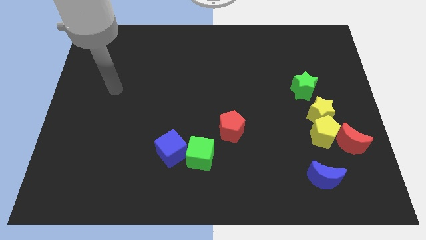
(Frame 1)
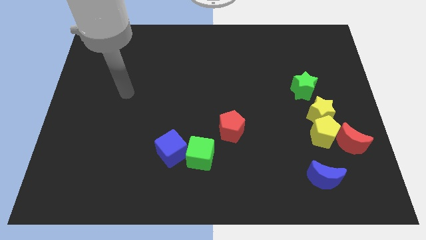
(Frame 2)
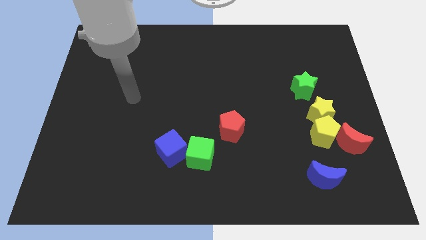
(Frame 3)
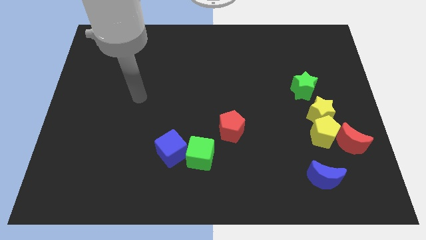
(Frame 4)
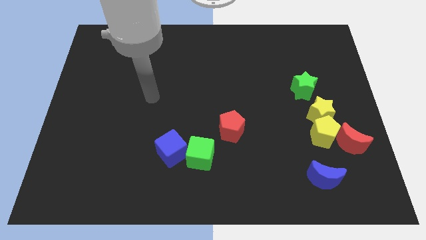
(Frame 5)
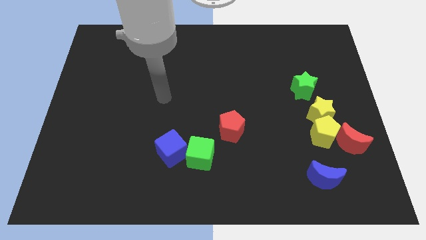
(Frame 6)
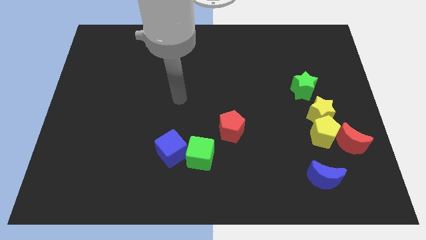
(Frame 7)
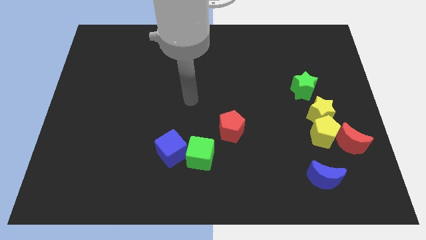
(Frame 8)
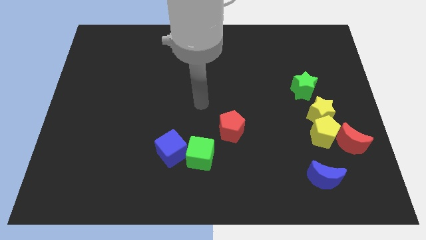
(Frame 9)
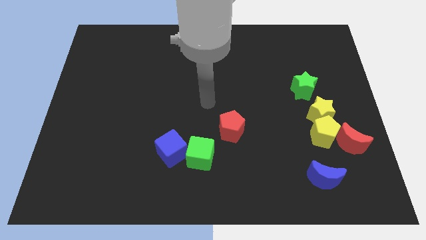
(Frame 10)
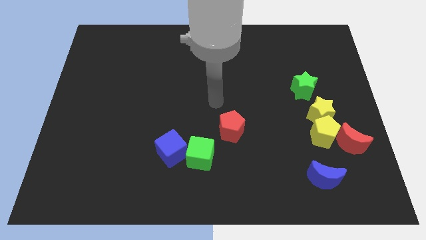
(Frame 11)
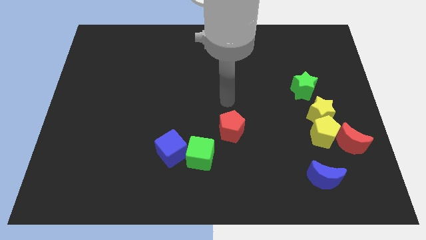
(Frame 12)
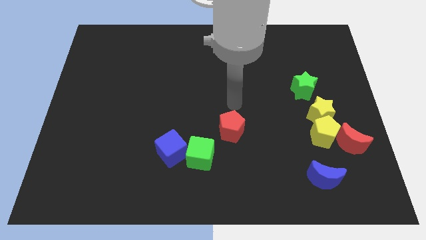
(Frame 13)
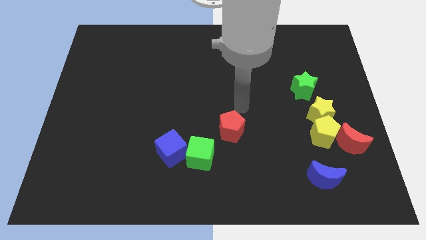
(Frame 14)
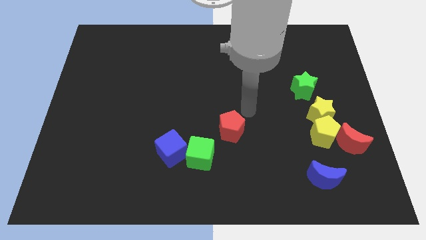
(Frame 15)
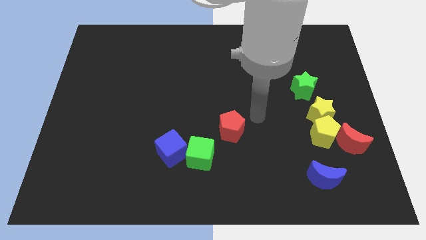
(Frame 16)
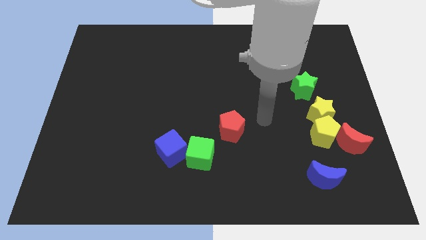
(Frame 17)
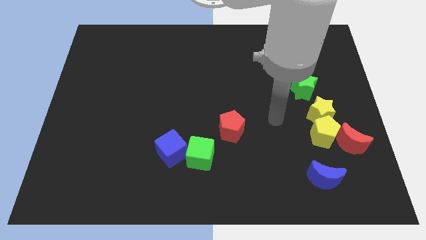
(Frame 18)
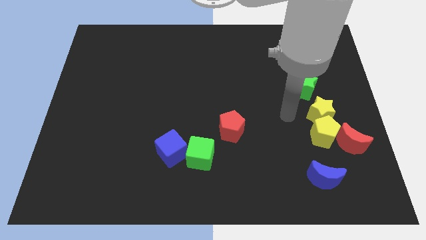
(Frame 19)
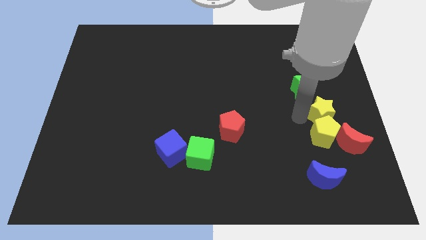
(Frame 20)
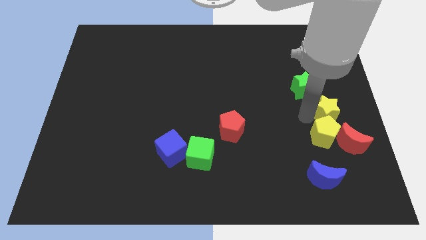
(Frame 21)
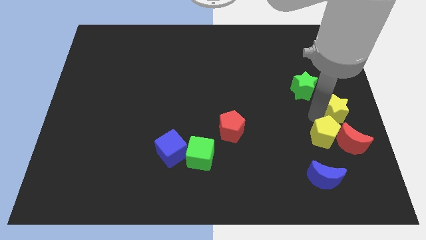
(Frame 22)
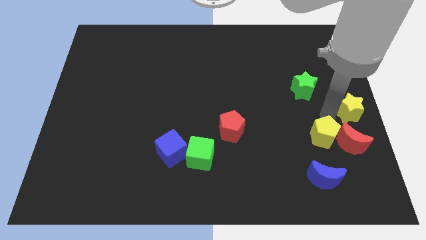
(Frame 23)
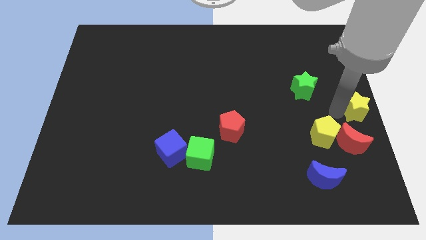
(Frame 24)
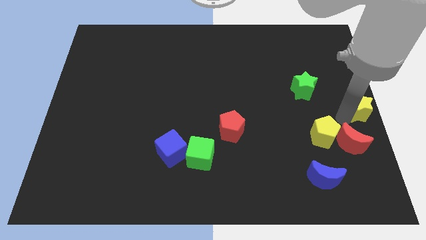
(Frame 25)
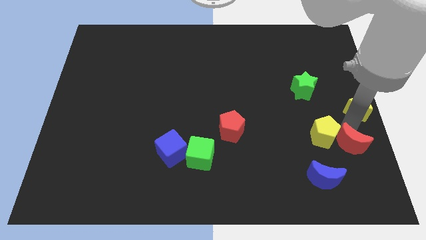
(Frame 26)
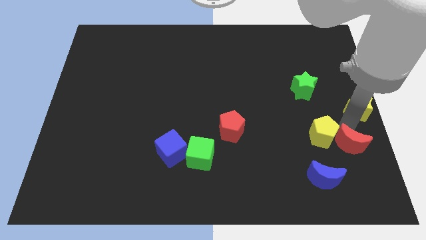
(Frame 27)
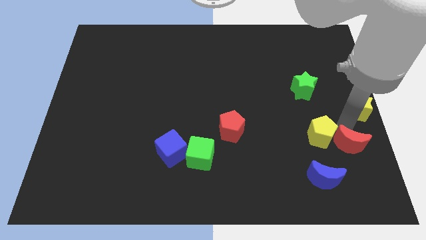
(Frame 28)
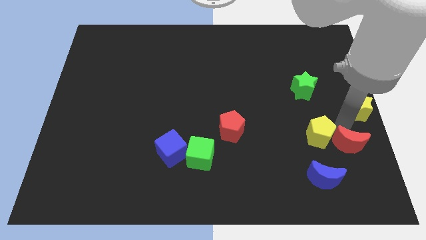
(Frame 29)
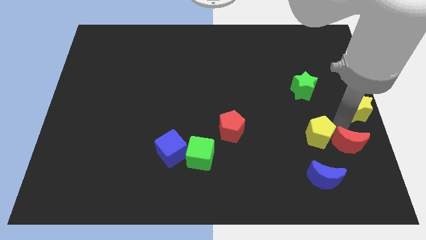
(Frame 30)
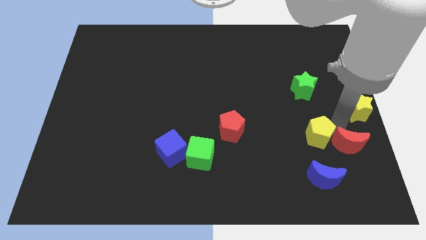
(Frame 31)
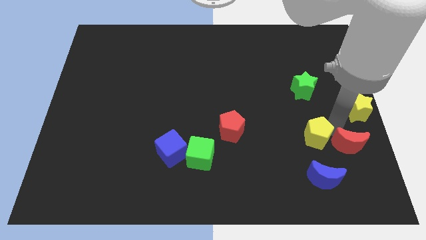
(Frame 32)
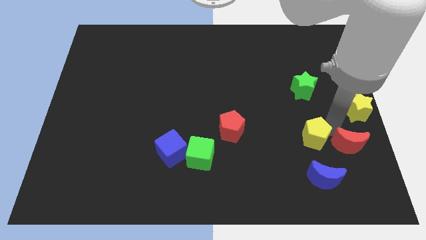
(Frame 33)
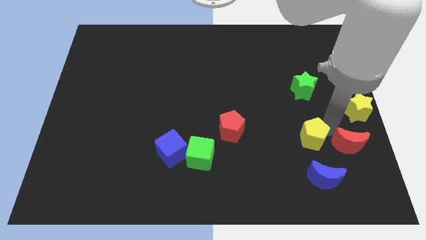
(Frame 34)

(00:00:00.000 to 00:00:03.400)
separate the yellow pentagon from the yellow star and red moon

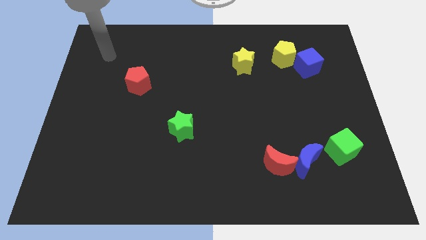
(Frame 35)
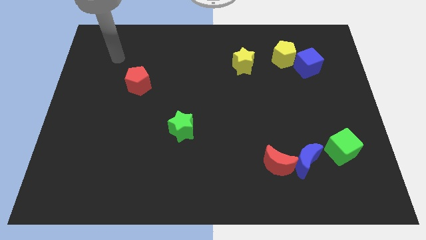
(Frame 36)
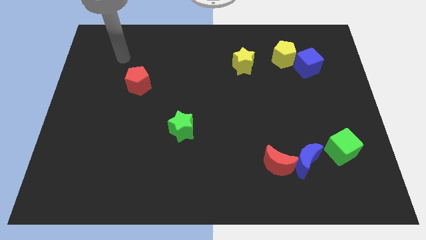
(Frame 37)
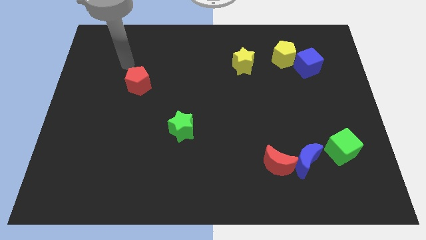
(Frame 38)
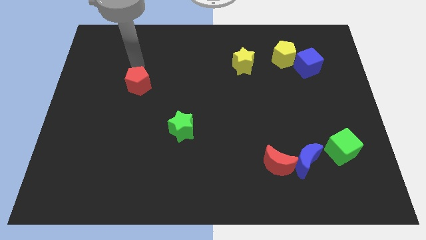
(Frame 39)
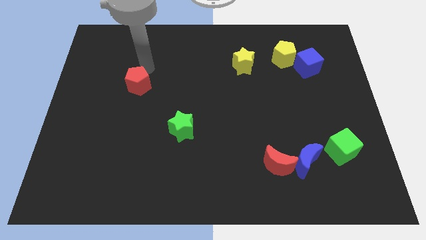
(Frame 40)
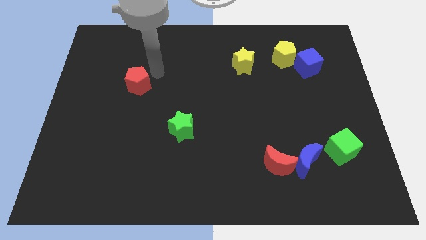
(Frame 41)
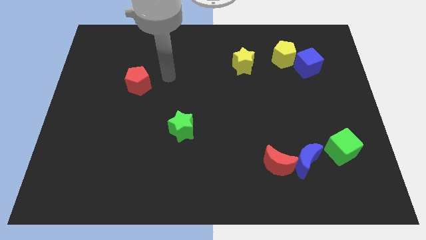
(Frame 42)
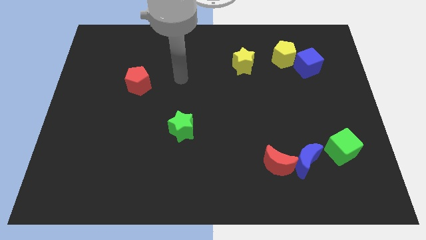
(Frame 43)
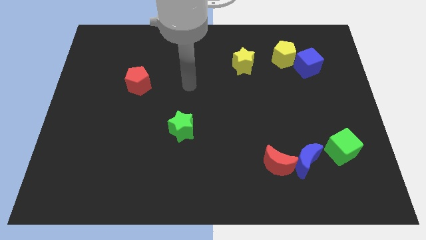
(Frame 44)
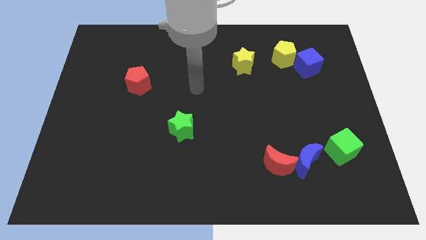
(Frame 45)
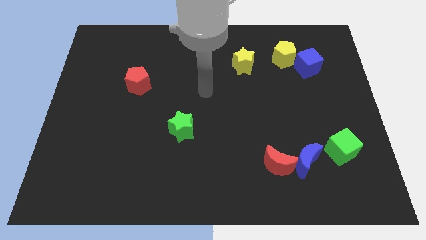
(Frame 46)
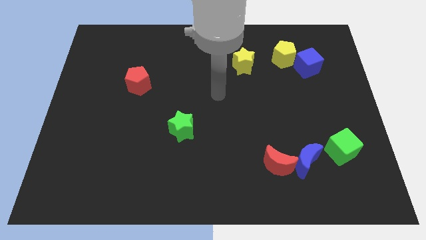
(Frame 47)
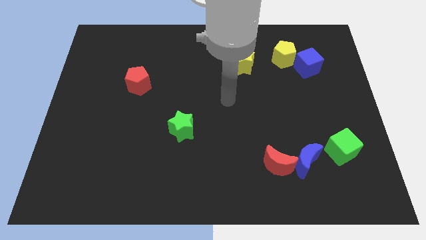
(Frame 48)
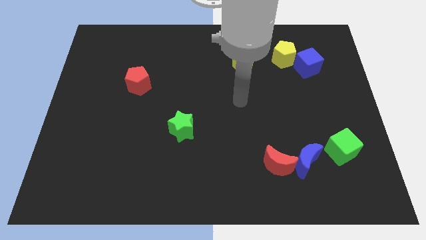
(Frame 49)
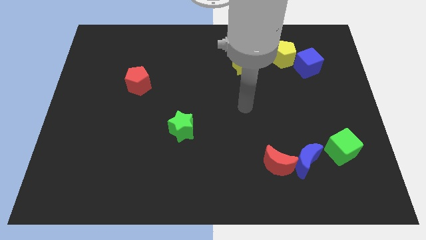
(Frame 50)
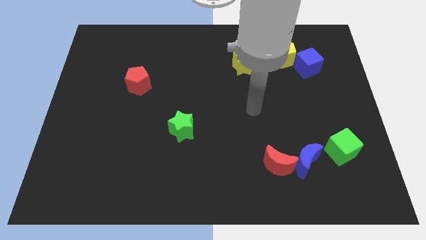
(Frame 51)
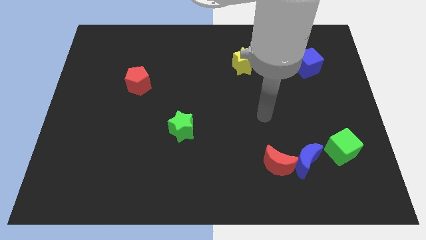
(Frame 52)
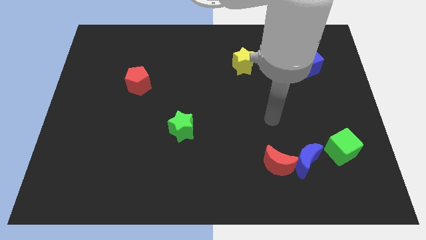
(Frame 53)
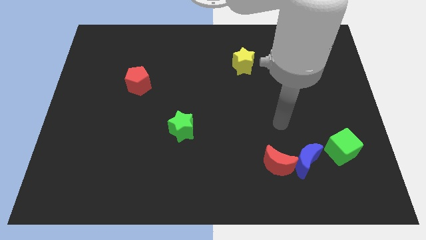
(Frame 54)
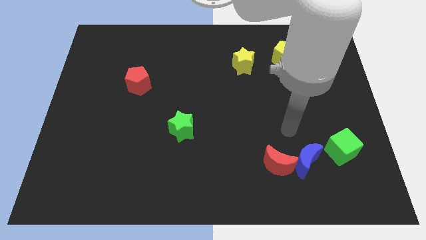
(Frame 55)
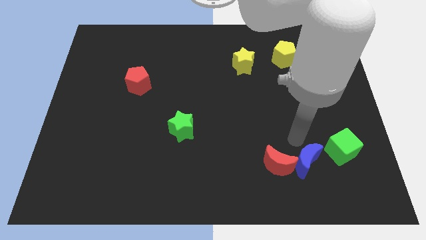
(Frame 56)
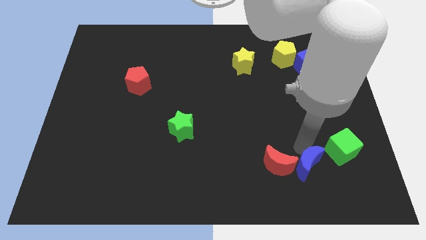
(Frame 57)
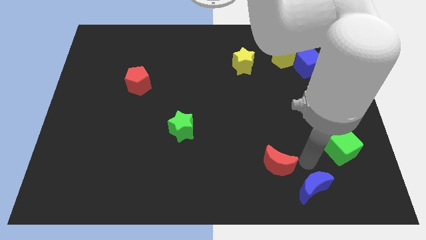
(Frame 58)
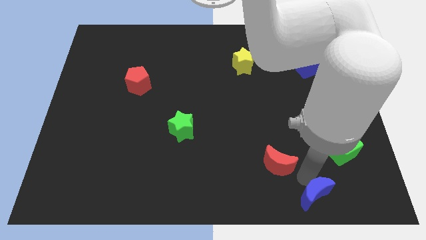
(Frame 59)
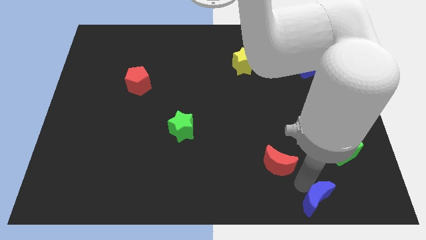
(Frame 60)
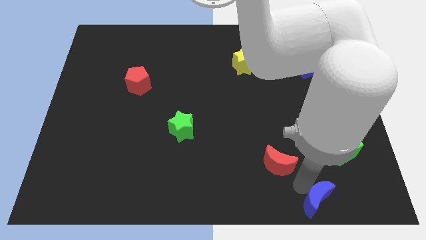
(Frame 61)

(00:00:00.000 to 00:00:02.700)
move the red moon away from the blue moon

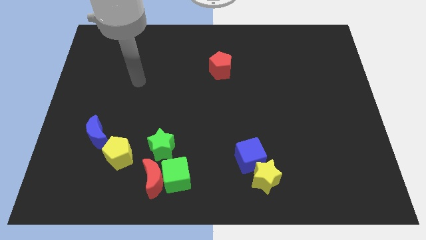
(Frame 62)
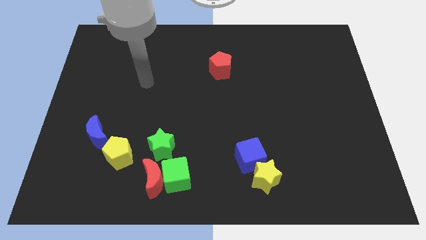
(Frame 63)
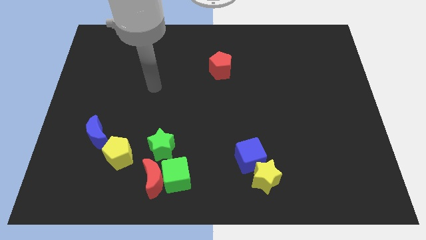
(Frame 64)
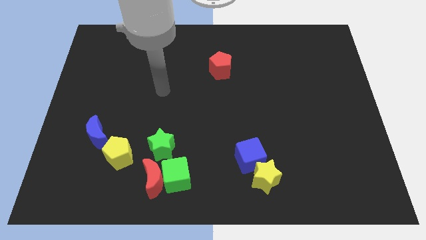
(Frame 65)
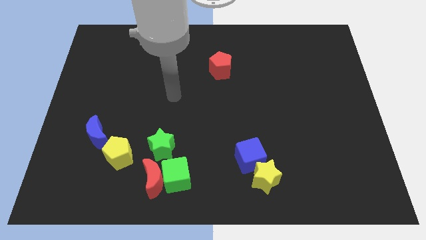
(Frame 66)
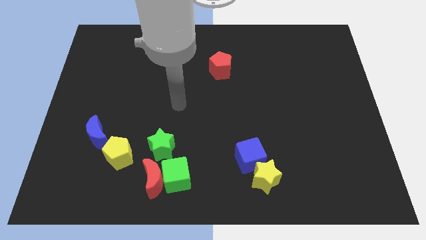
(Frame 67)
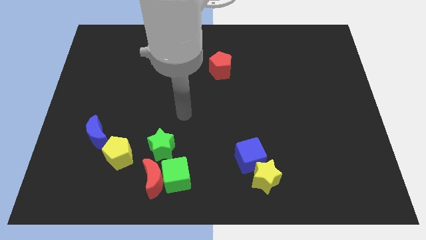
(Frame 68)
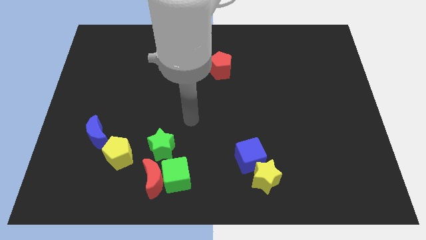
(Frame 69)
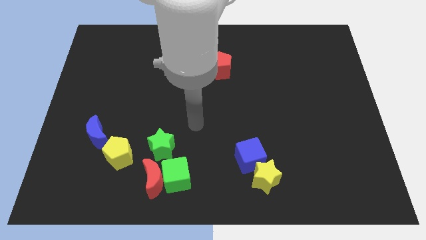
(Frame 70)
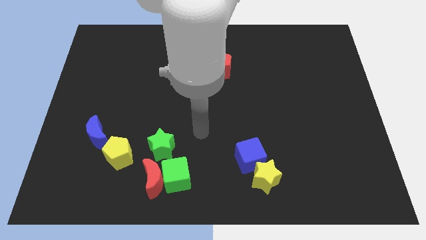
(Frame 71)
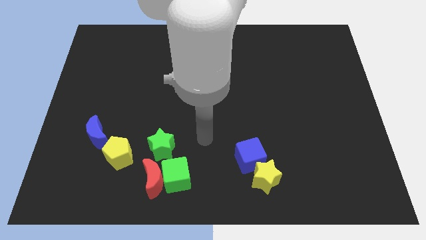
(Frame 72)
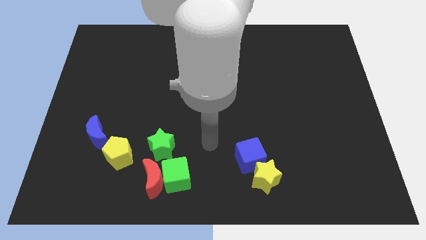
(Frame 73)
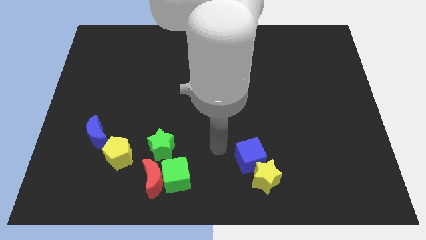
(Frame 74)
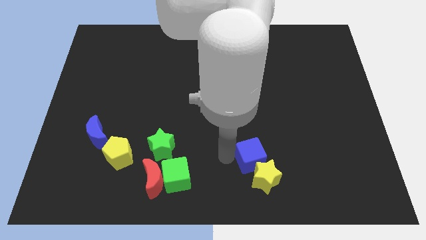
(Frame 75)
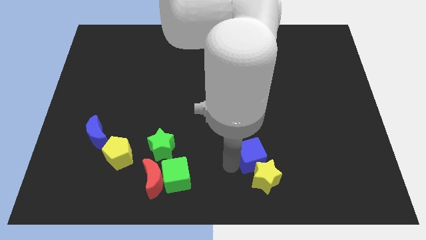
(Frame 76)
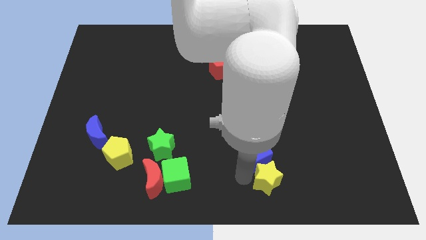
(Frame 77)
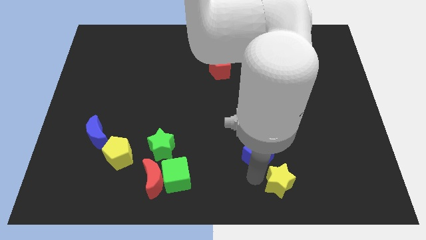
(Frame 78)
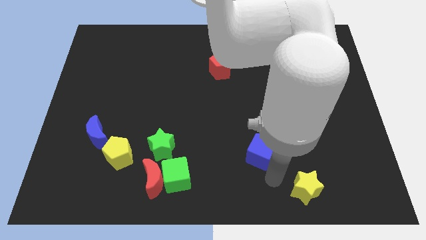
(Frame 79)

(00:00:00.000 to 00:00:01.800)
move the blue cube away from the yellow star

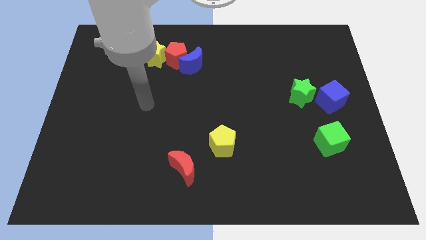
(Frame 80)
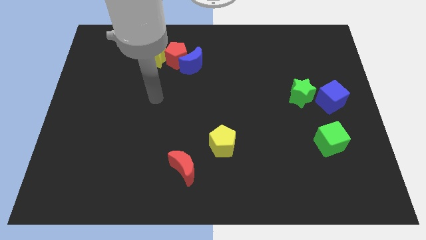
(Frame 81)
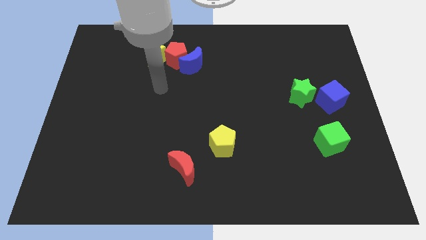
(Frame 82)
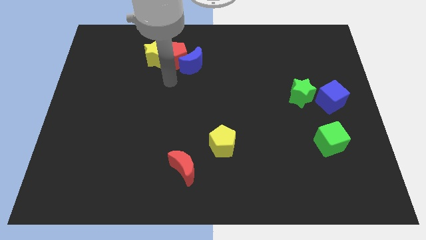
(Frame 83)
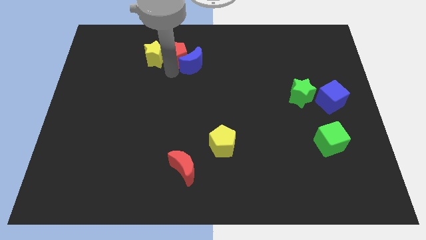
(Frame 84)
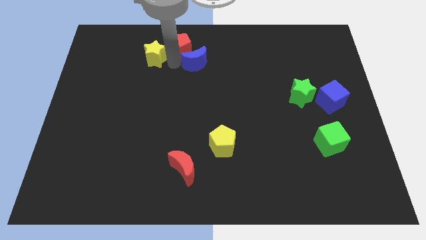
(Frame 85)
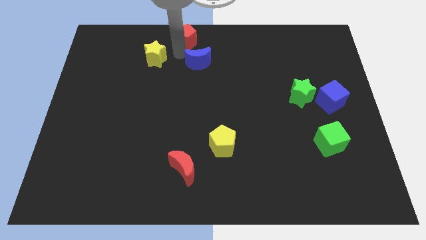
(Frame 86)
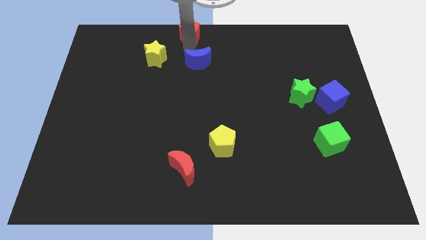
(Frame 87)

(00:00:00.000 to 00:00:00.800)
move the blue moon away from the red pentagon

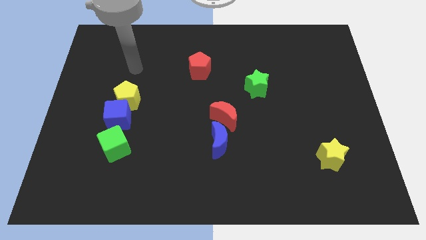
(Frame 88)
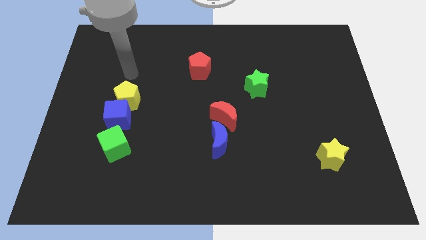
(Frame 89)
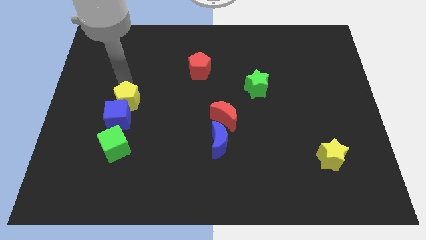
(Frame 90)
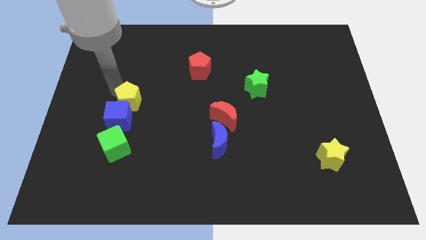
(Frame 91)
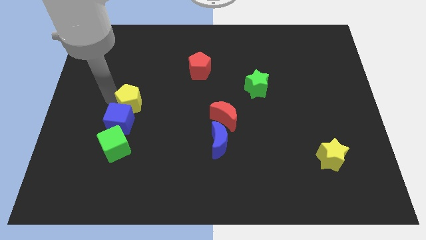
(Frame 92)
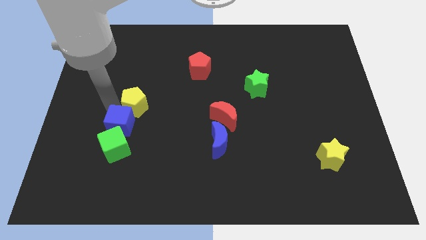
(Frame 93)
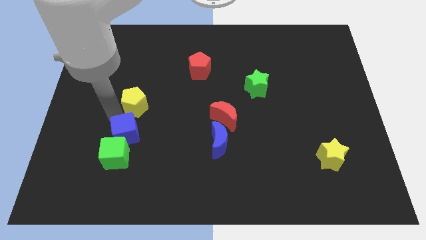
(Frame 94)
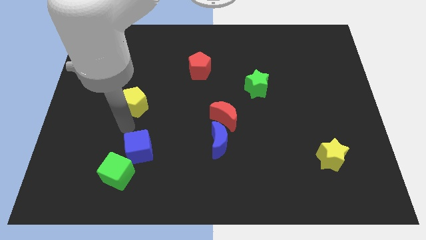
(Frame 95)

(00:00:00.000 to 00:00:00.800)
pull the yellow pentagon apart from the blue cube
